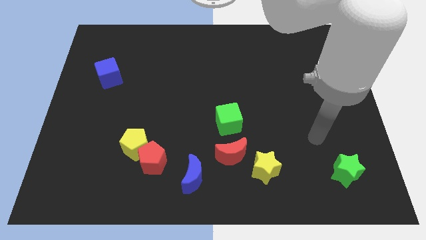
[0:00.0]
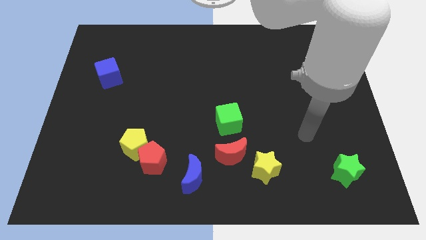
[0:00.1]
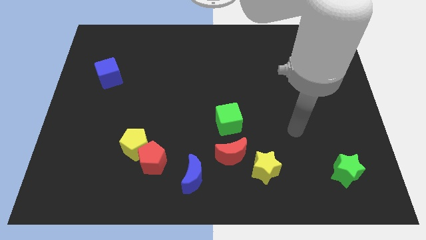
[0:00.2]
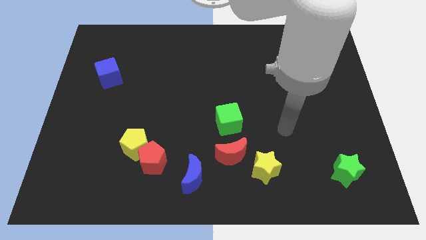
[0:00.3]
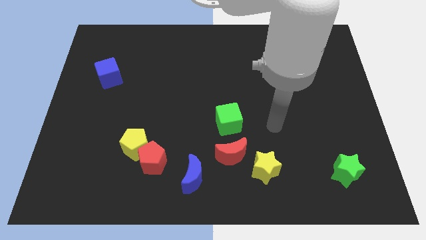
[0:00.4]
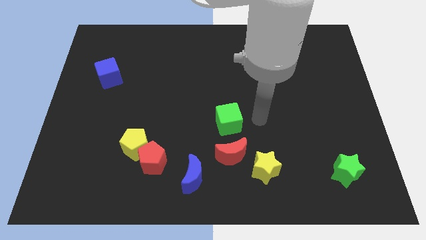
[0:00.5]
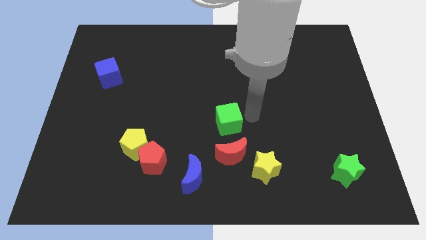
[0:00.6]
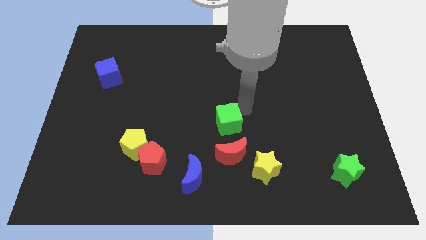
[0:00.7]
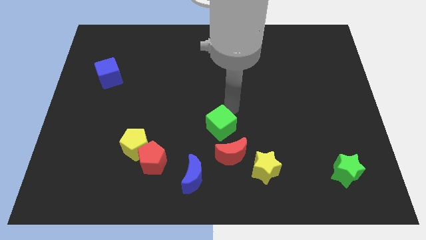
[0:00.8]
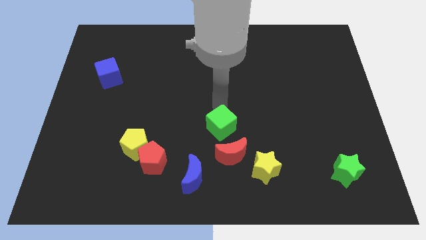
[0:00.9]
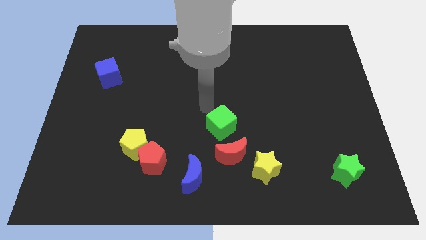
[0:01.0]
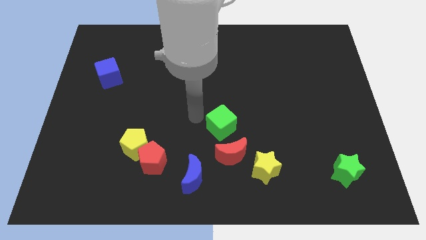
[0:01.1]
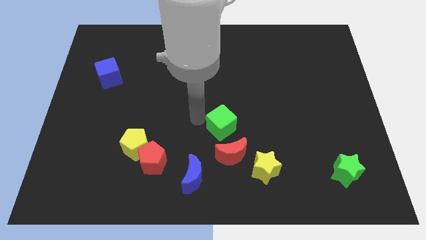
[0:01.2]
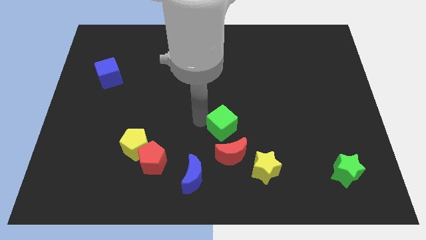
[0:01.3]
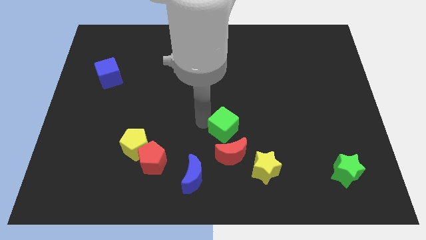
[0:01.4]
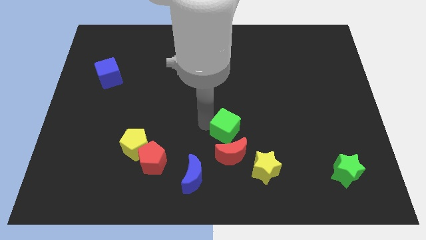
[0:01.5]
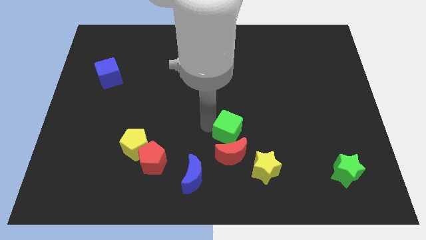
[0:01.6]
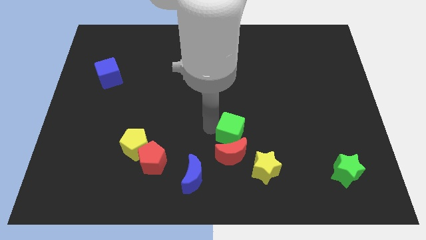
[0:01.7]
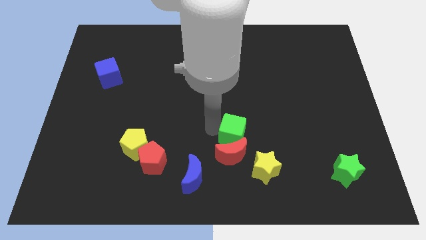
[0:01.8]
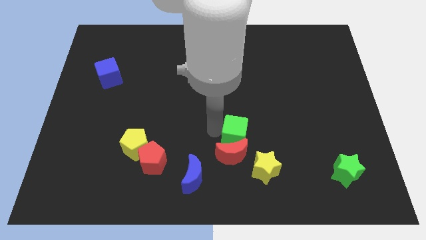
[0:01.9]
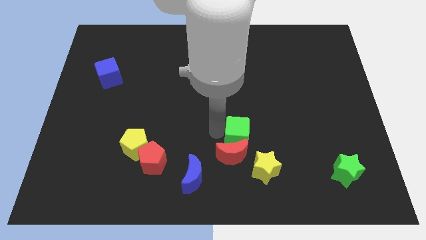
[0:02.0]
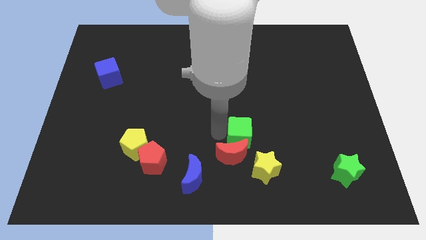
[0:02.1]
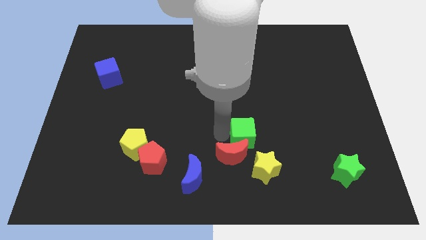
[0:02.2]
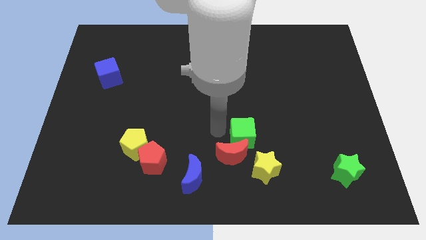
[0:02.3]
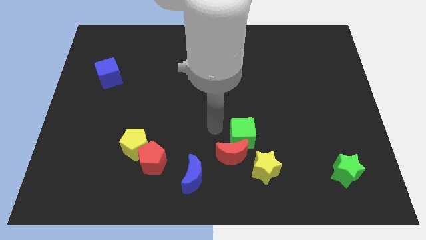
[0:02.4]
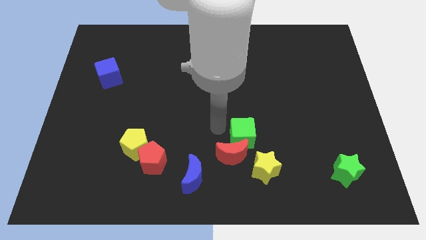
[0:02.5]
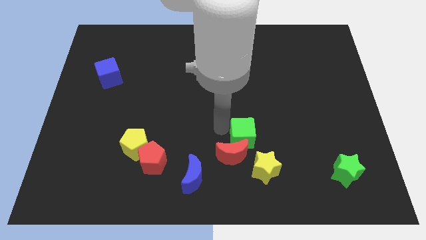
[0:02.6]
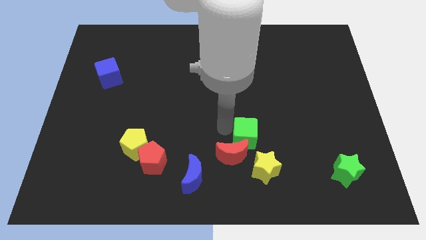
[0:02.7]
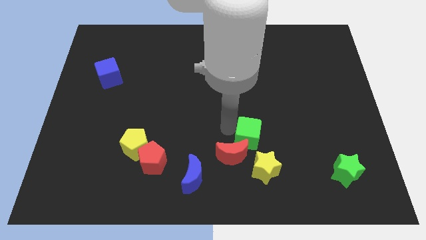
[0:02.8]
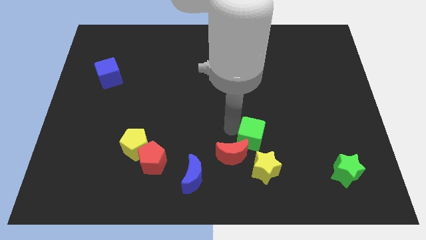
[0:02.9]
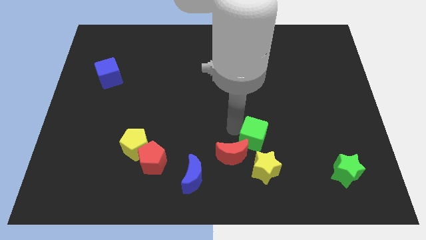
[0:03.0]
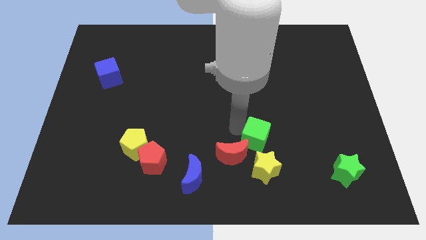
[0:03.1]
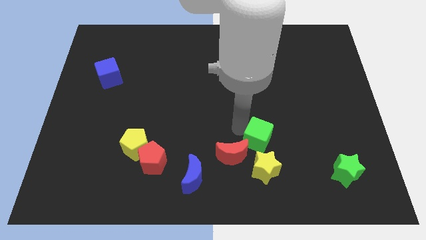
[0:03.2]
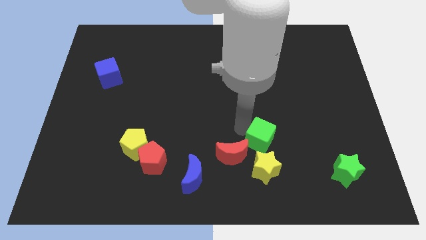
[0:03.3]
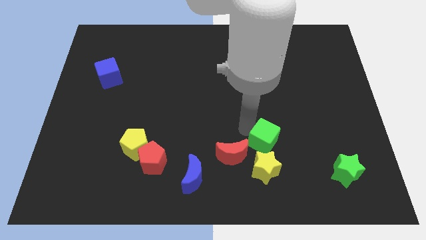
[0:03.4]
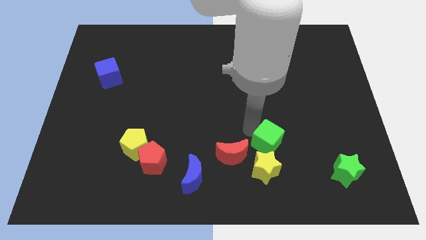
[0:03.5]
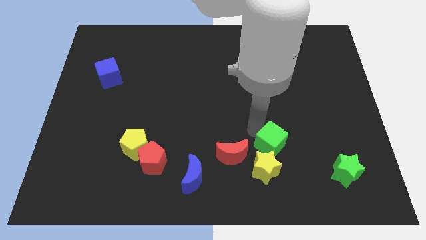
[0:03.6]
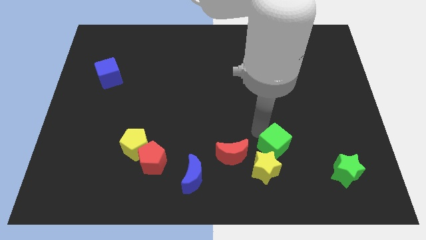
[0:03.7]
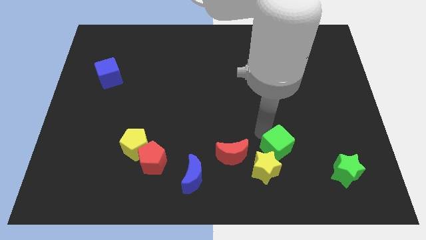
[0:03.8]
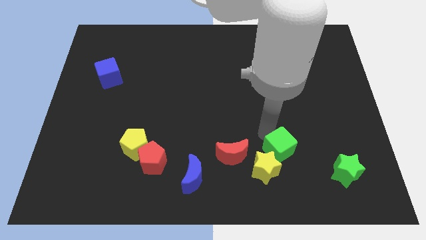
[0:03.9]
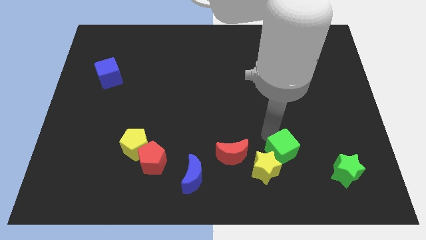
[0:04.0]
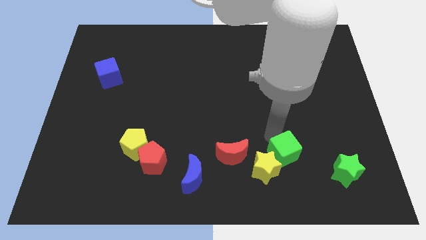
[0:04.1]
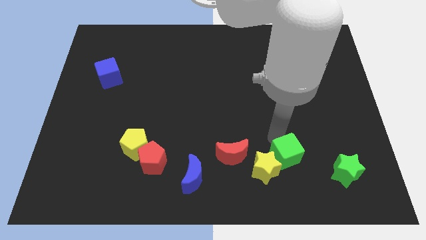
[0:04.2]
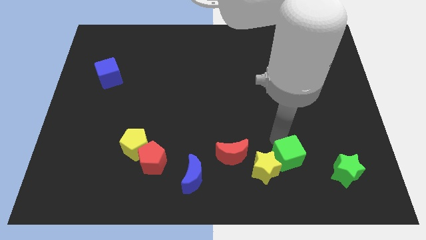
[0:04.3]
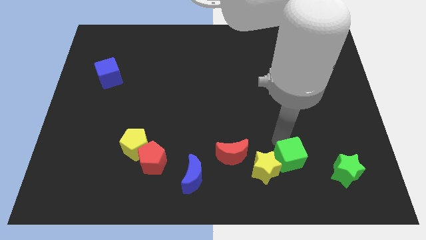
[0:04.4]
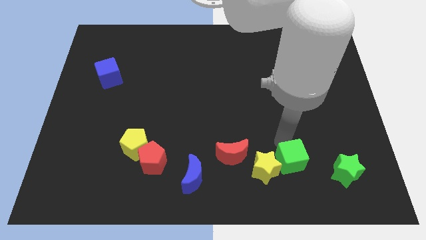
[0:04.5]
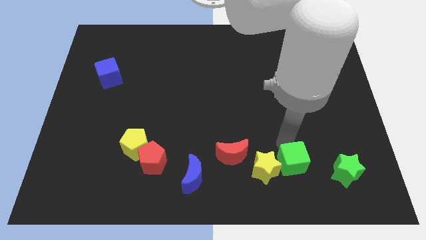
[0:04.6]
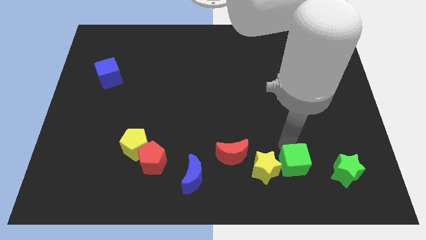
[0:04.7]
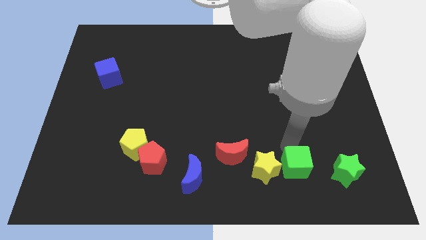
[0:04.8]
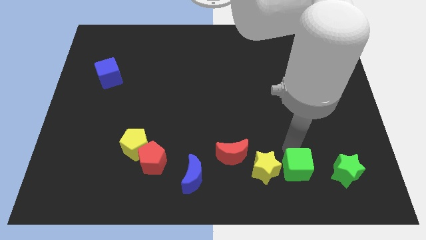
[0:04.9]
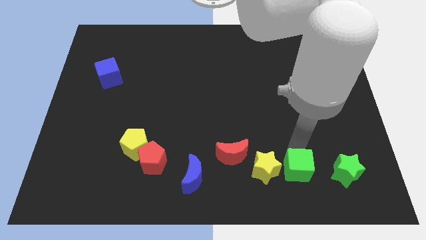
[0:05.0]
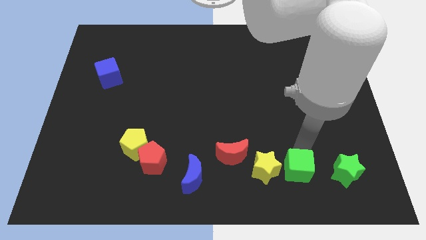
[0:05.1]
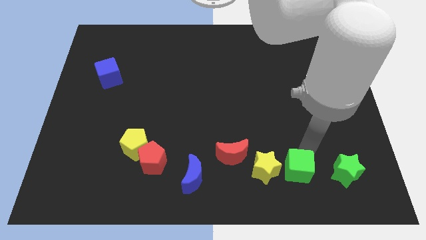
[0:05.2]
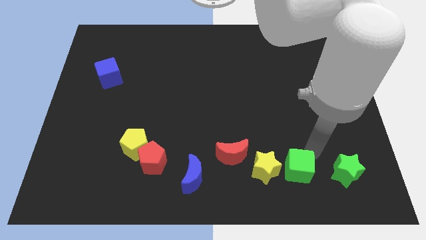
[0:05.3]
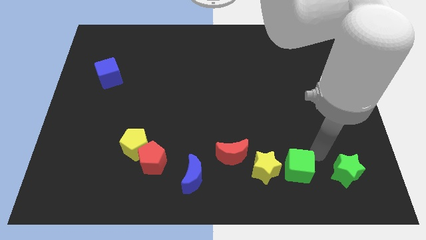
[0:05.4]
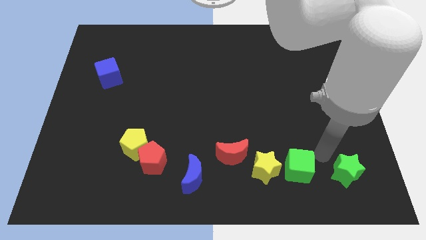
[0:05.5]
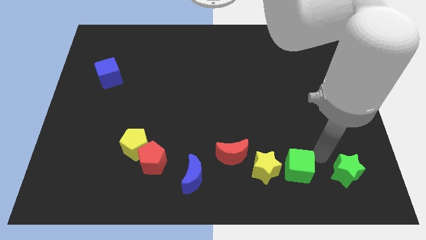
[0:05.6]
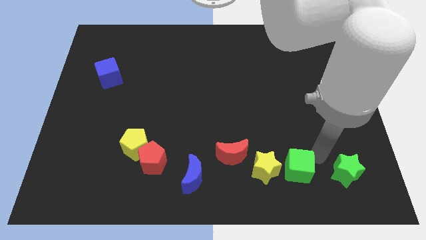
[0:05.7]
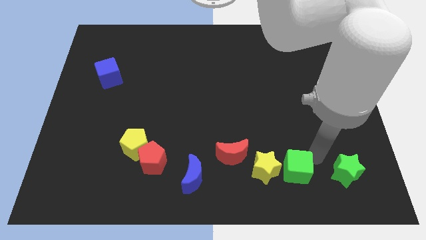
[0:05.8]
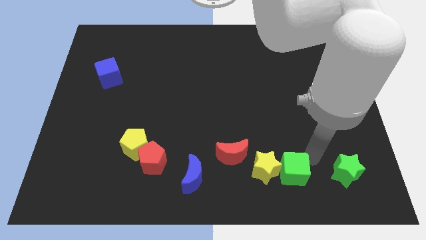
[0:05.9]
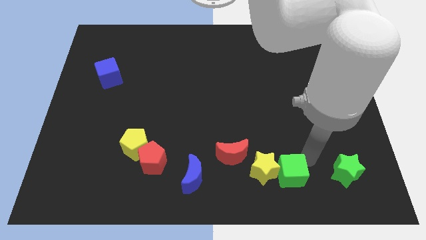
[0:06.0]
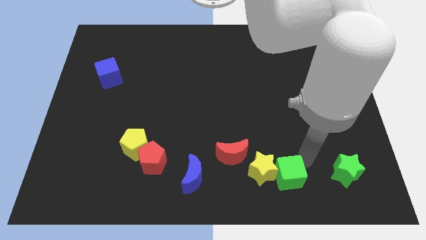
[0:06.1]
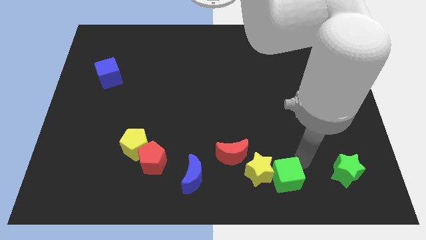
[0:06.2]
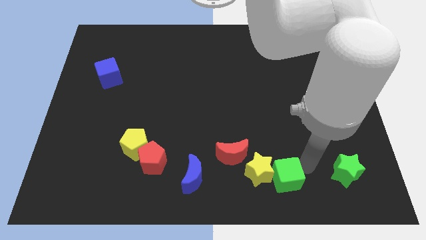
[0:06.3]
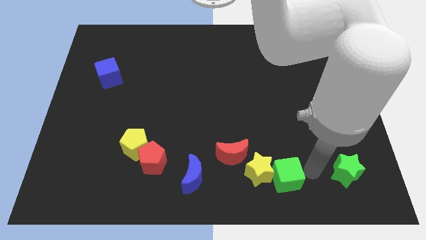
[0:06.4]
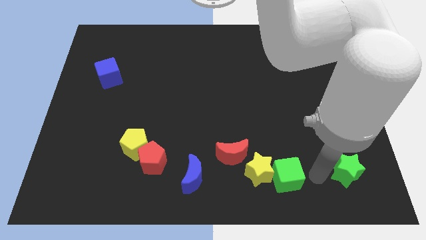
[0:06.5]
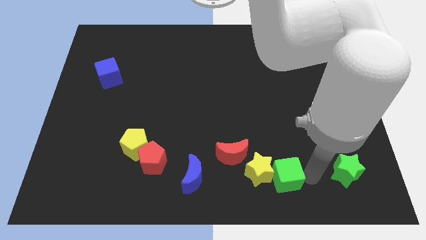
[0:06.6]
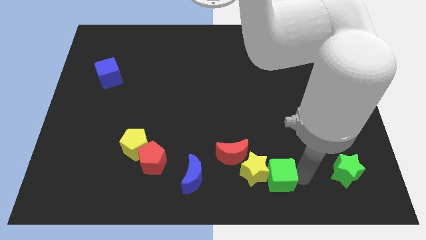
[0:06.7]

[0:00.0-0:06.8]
move the green cube diagonally down and to the right of the red moon
